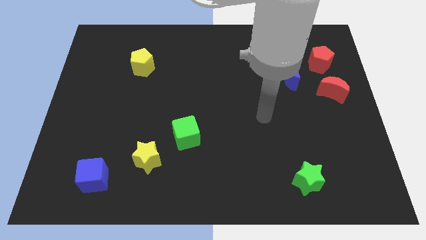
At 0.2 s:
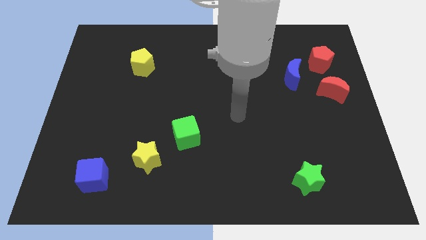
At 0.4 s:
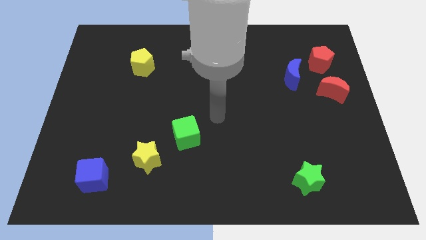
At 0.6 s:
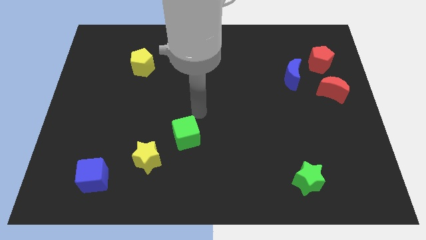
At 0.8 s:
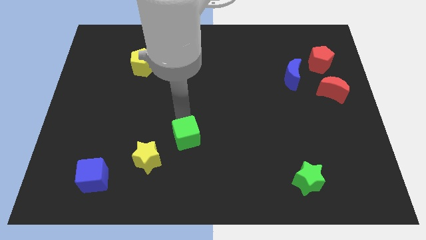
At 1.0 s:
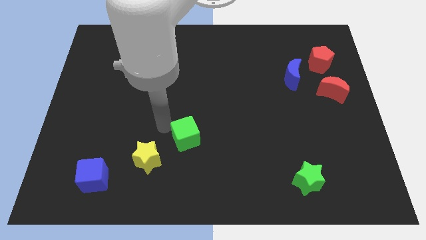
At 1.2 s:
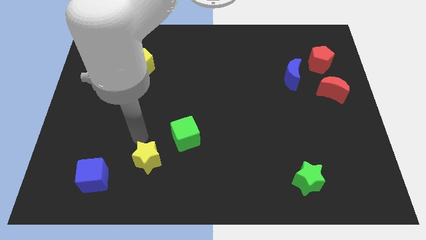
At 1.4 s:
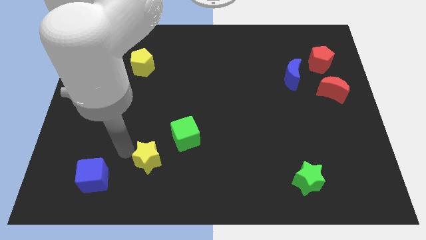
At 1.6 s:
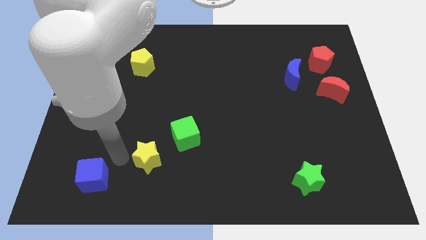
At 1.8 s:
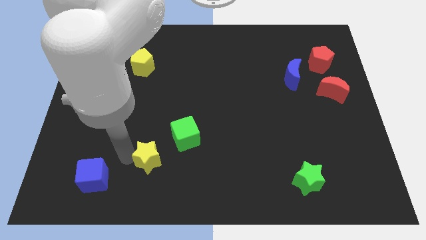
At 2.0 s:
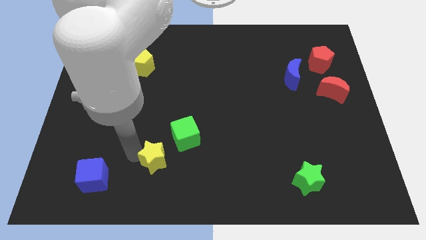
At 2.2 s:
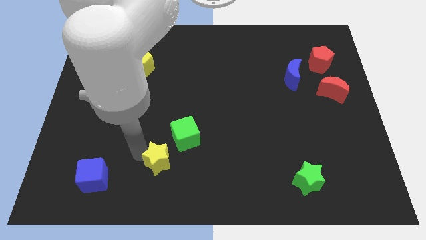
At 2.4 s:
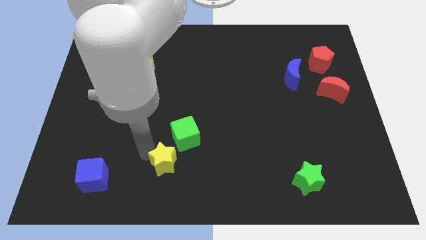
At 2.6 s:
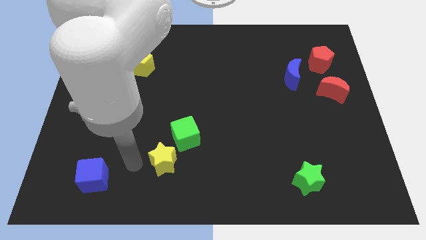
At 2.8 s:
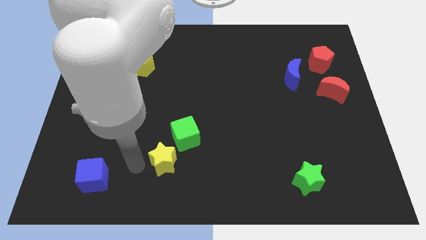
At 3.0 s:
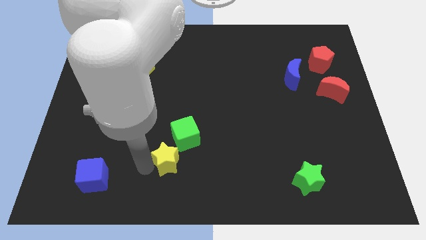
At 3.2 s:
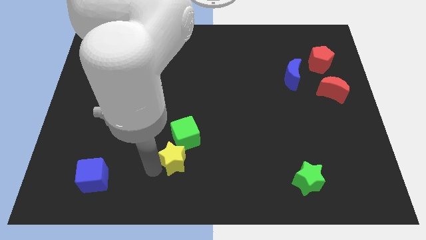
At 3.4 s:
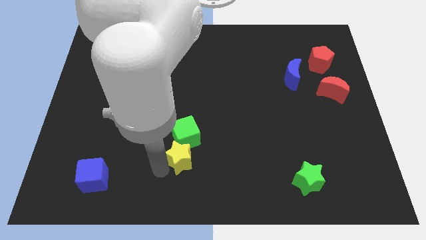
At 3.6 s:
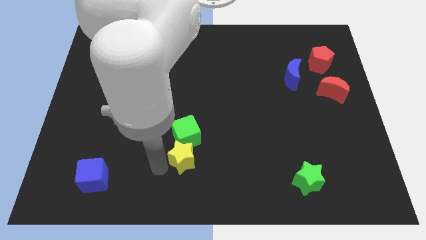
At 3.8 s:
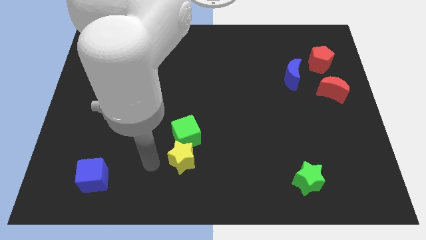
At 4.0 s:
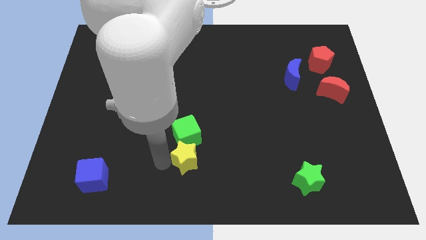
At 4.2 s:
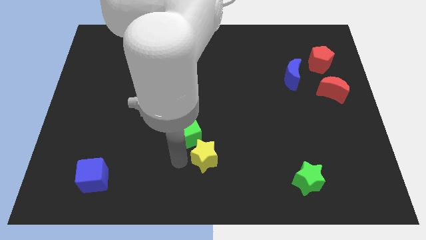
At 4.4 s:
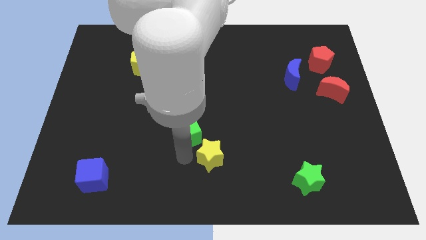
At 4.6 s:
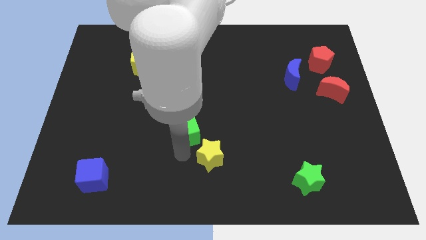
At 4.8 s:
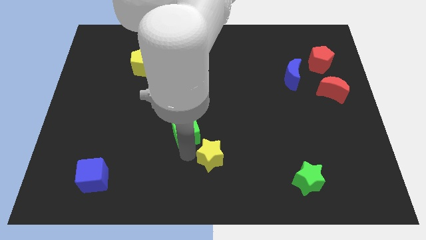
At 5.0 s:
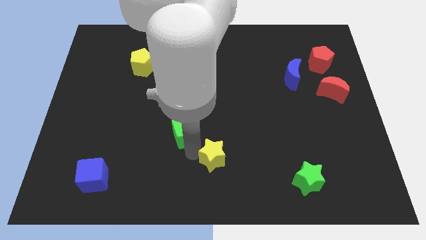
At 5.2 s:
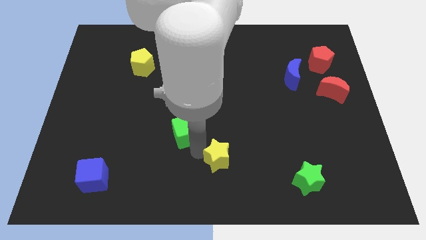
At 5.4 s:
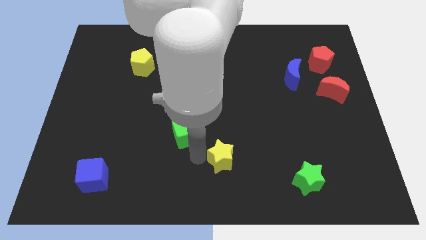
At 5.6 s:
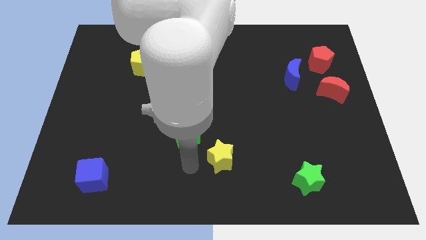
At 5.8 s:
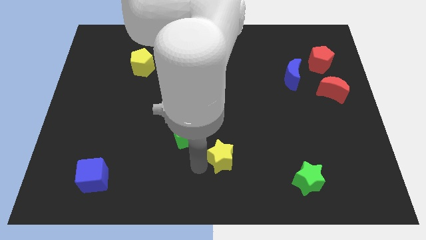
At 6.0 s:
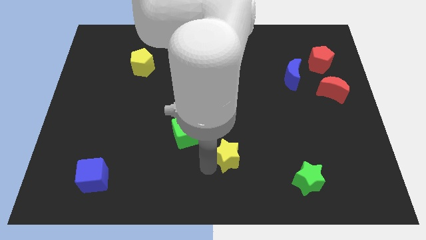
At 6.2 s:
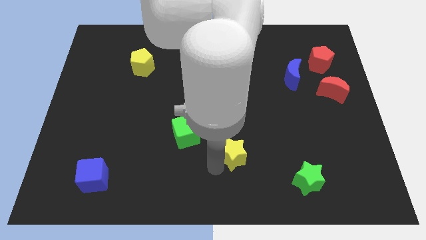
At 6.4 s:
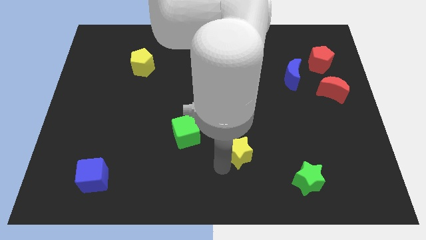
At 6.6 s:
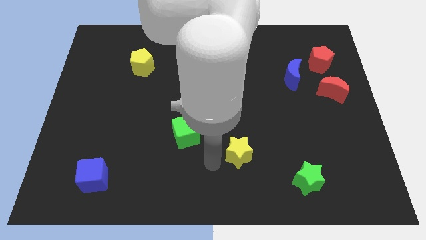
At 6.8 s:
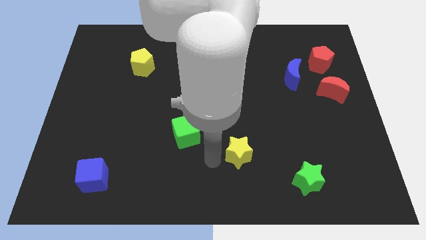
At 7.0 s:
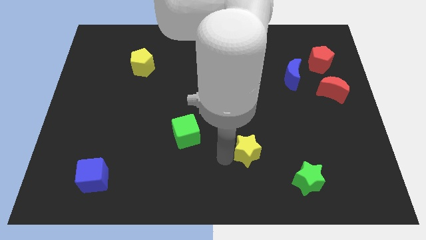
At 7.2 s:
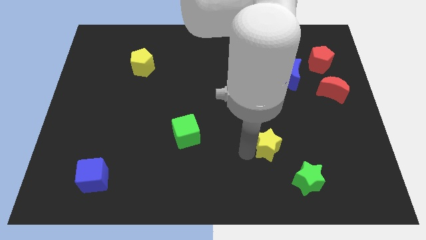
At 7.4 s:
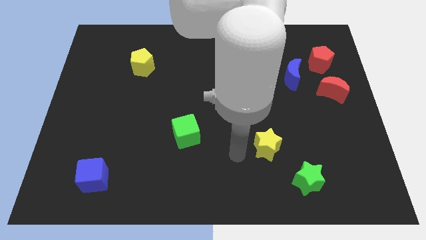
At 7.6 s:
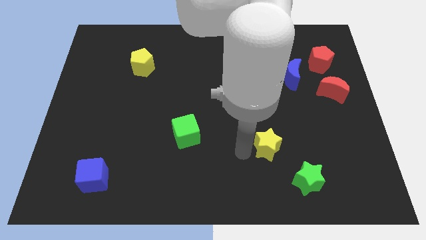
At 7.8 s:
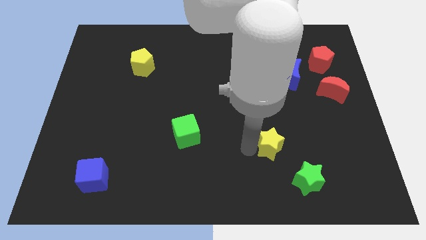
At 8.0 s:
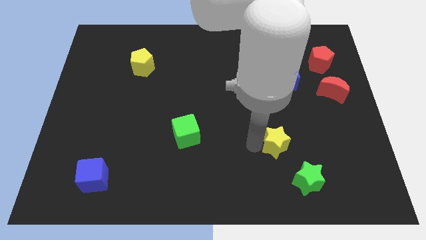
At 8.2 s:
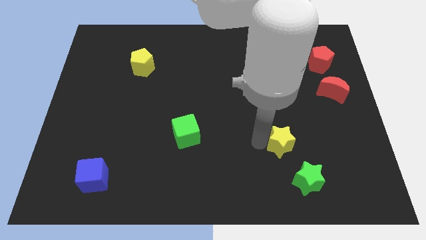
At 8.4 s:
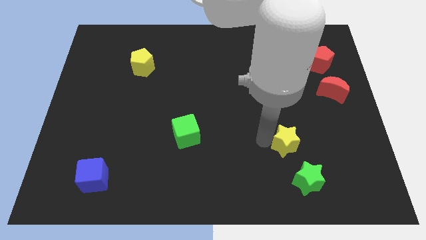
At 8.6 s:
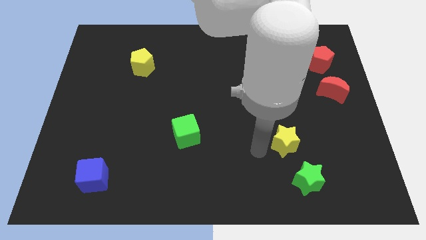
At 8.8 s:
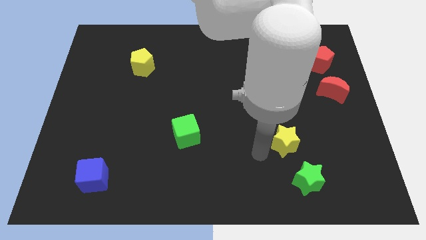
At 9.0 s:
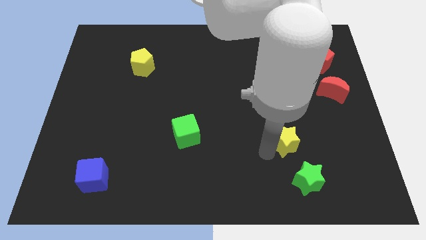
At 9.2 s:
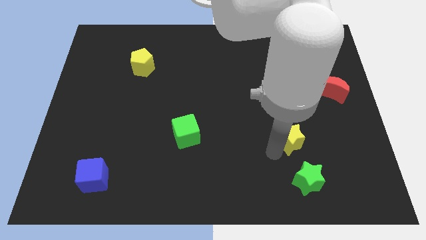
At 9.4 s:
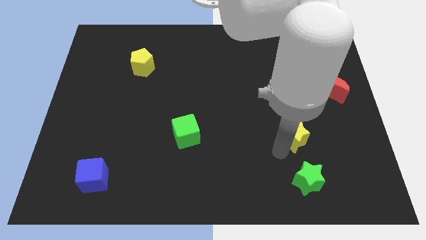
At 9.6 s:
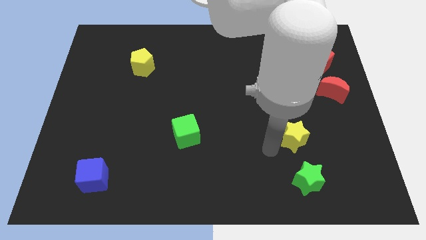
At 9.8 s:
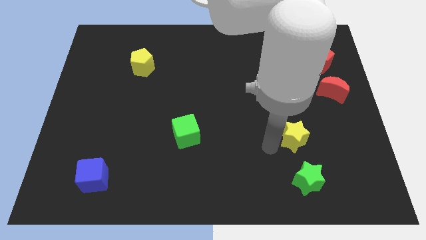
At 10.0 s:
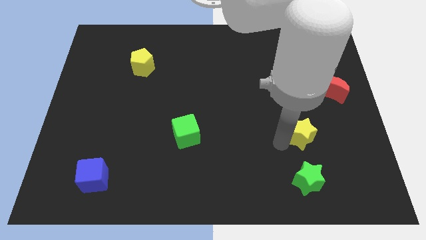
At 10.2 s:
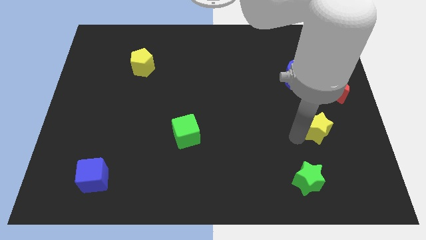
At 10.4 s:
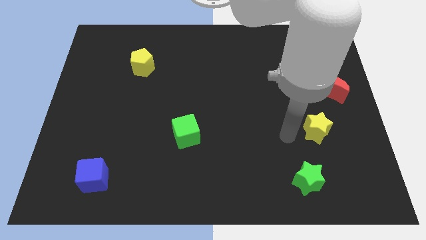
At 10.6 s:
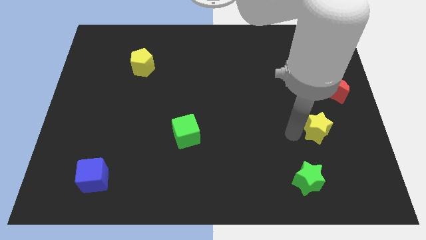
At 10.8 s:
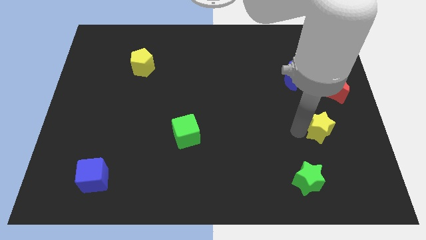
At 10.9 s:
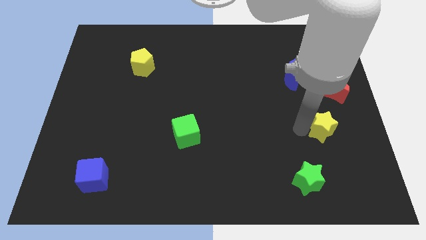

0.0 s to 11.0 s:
push the yellow star to the bottom of the red moon

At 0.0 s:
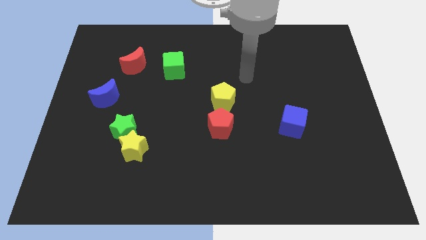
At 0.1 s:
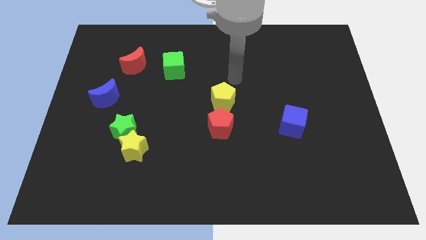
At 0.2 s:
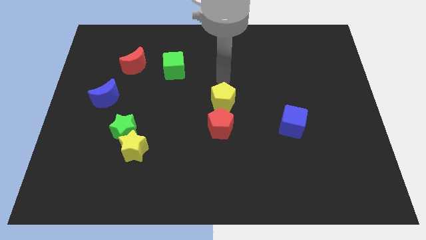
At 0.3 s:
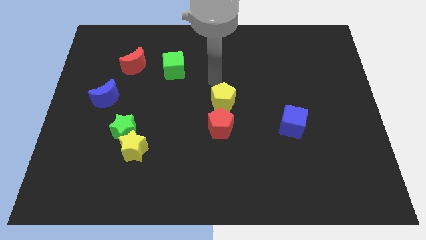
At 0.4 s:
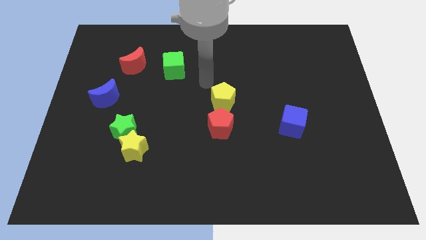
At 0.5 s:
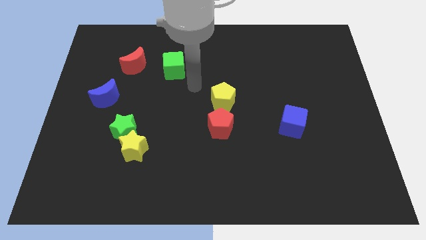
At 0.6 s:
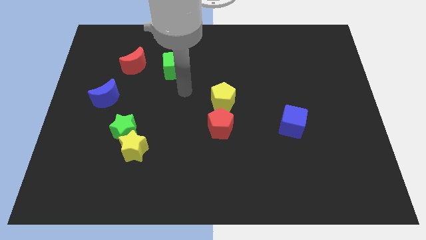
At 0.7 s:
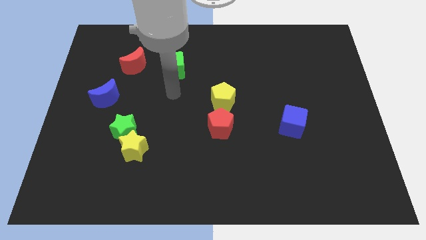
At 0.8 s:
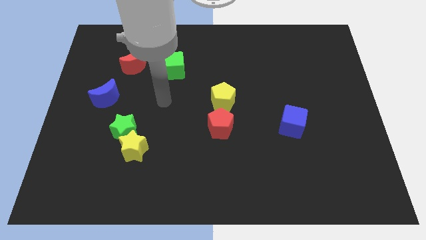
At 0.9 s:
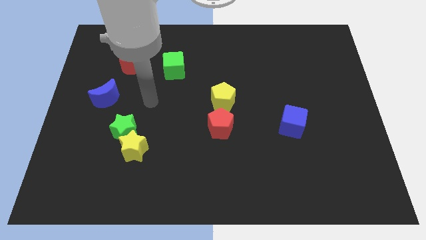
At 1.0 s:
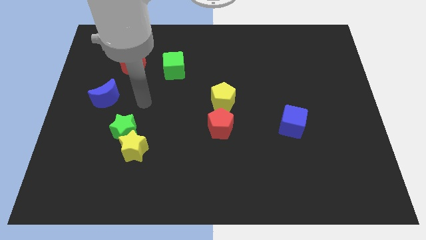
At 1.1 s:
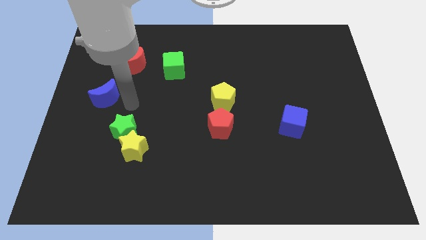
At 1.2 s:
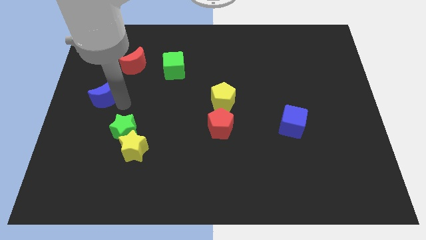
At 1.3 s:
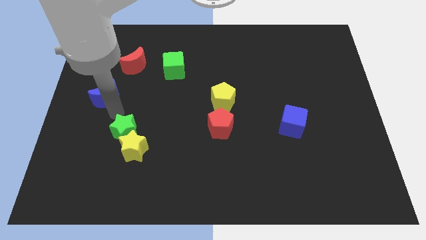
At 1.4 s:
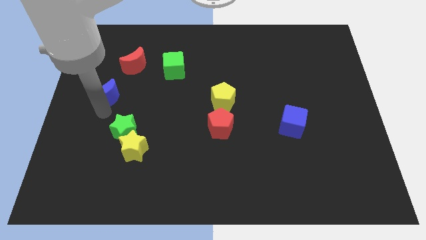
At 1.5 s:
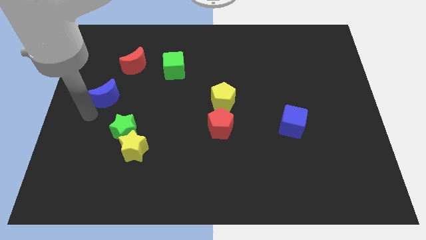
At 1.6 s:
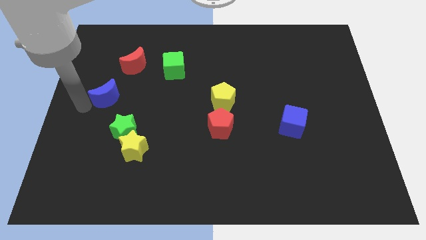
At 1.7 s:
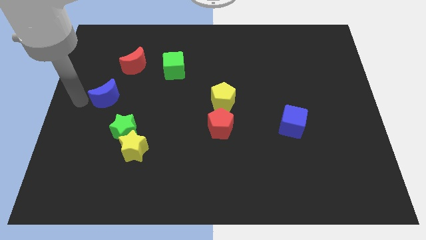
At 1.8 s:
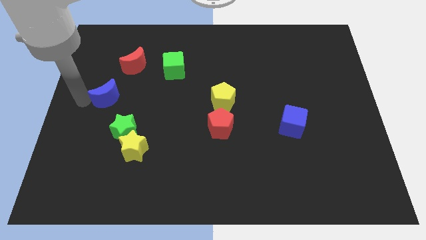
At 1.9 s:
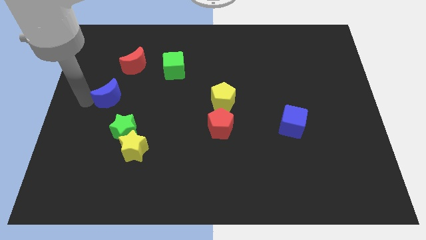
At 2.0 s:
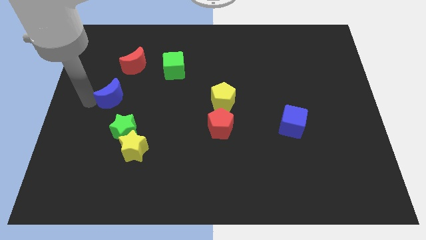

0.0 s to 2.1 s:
move the blue moon to the top of the green star
